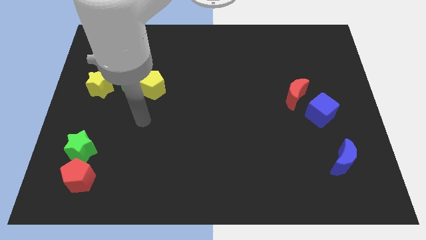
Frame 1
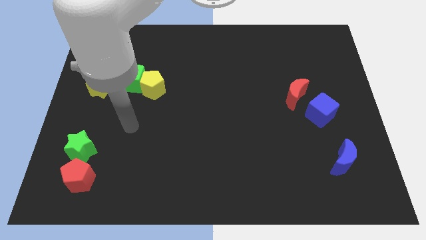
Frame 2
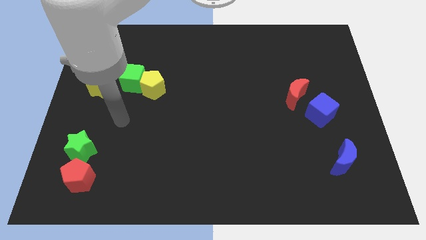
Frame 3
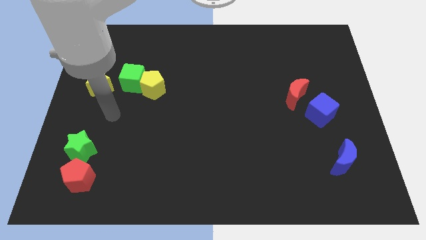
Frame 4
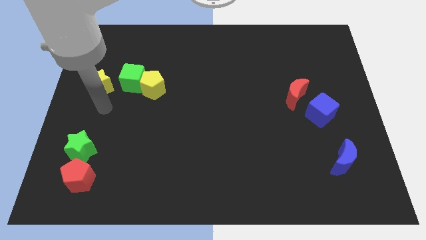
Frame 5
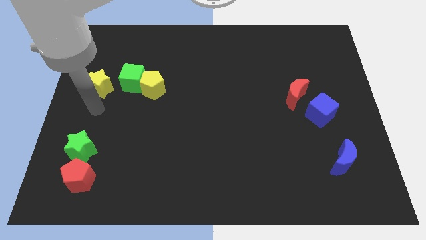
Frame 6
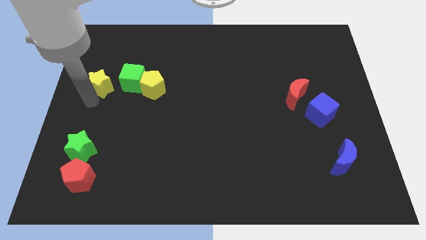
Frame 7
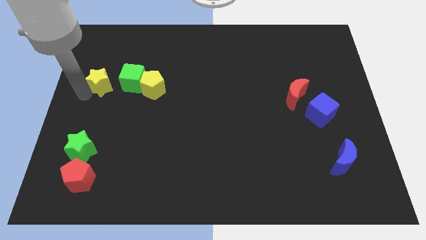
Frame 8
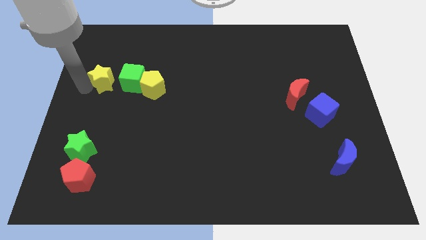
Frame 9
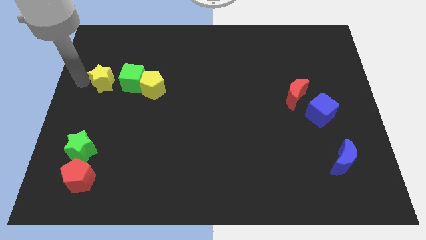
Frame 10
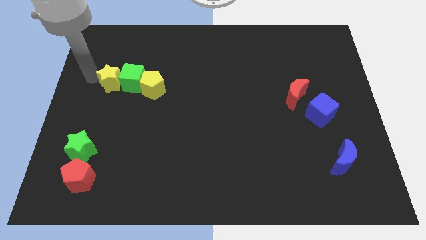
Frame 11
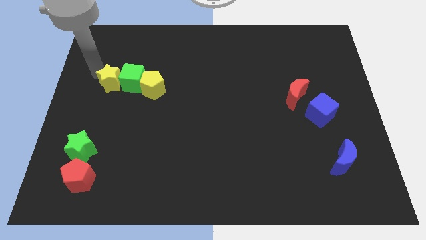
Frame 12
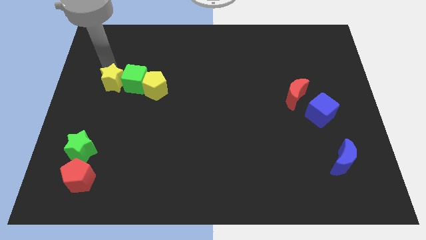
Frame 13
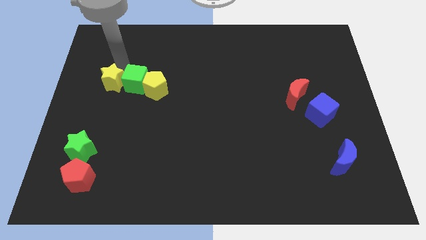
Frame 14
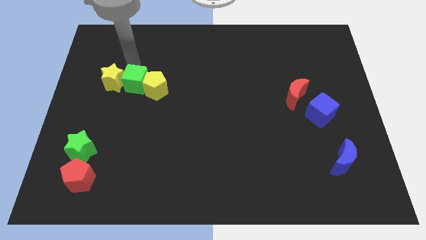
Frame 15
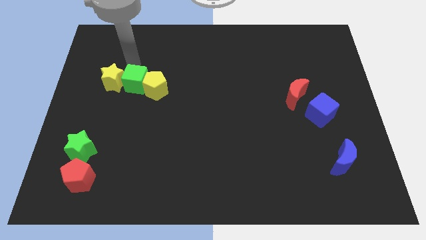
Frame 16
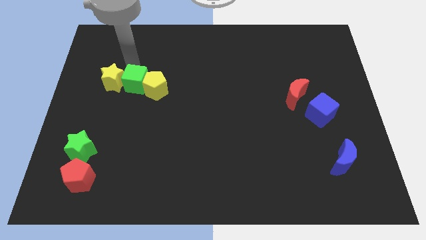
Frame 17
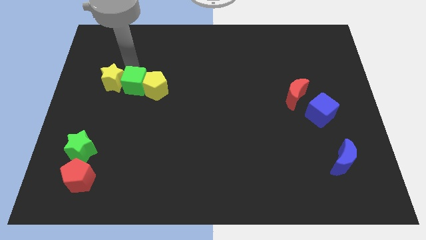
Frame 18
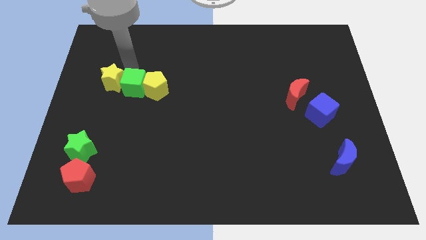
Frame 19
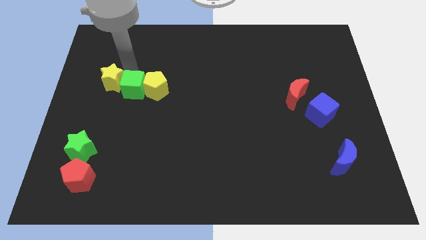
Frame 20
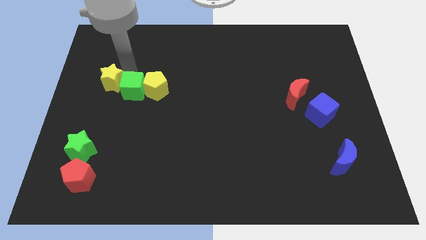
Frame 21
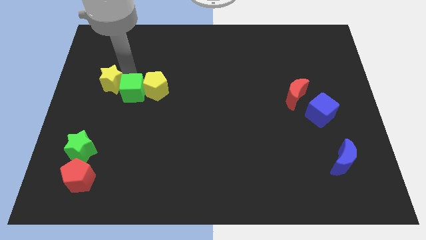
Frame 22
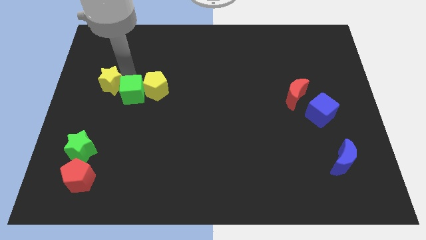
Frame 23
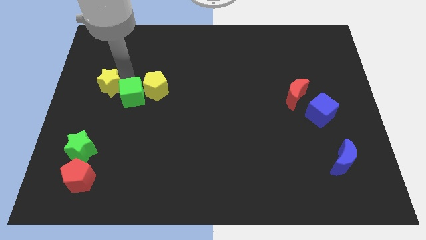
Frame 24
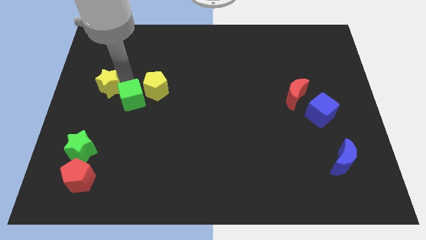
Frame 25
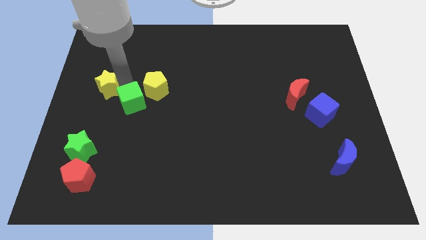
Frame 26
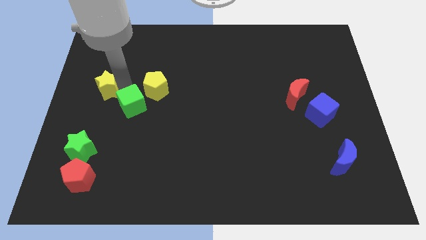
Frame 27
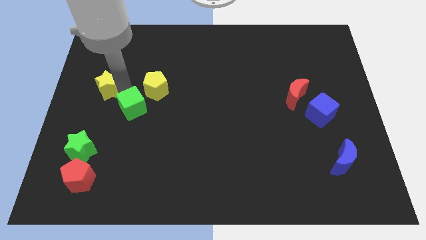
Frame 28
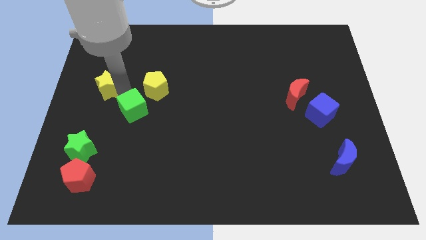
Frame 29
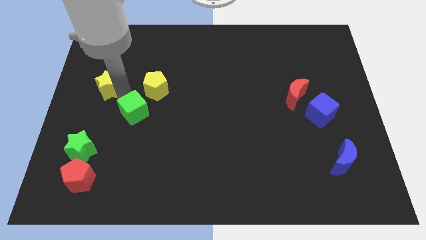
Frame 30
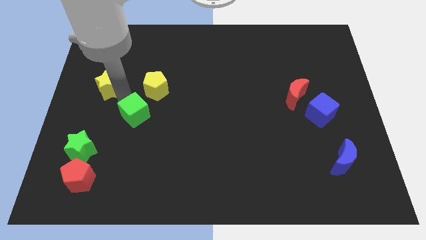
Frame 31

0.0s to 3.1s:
slightly push the green cube diagonally downwards and to the right

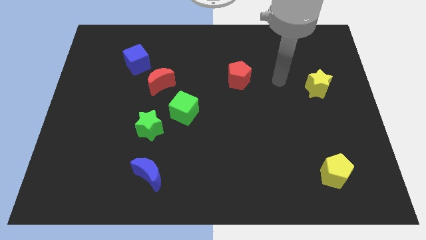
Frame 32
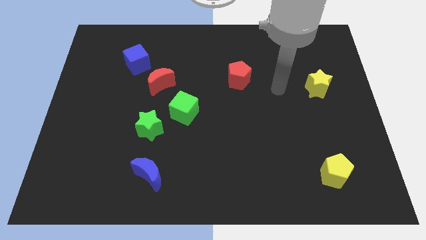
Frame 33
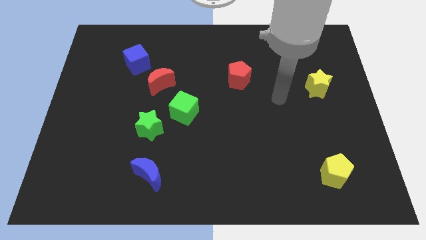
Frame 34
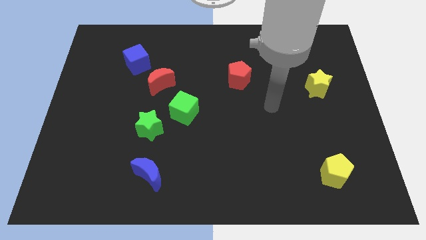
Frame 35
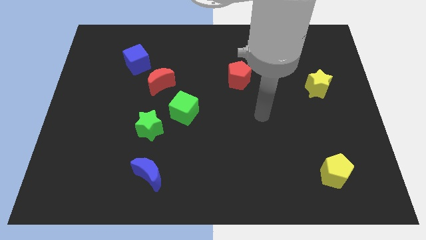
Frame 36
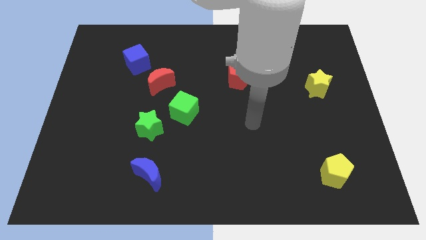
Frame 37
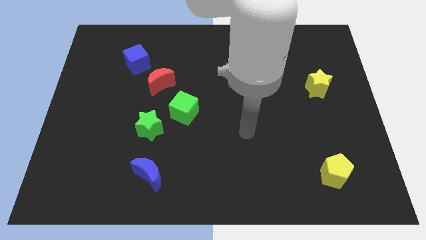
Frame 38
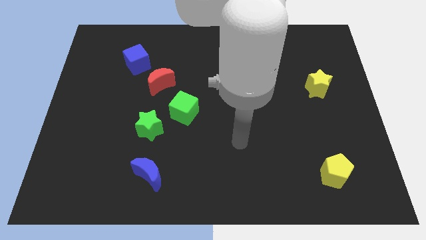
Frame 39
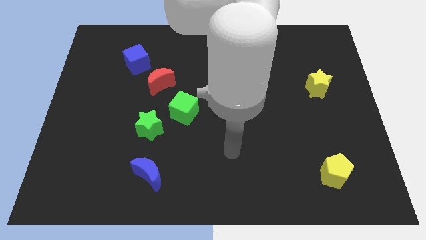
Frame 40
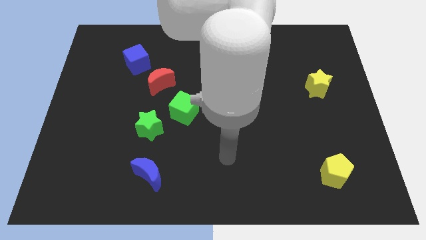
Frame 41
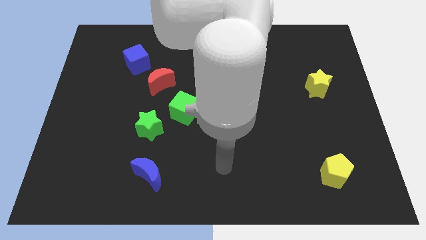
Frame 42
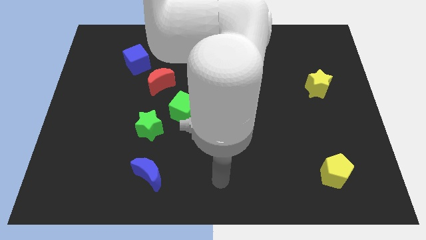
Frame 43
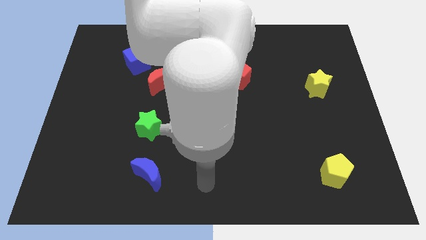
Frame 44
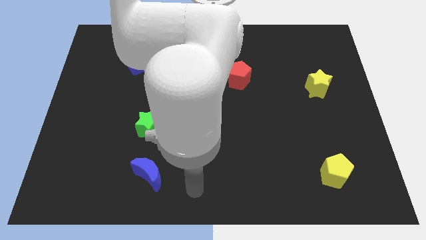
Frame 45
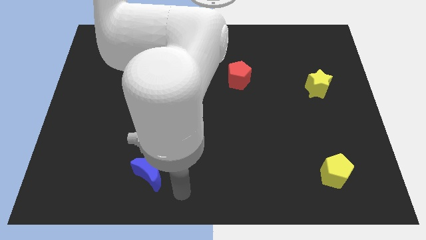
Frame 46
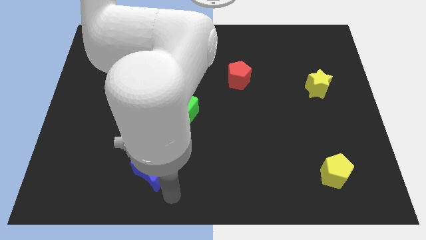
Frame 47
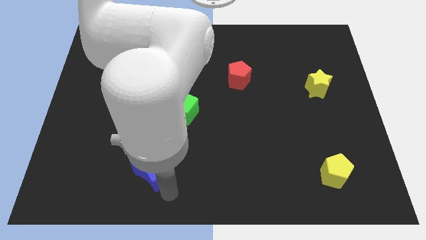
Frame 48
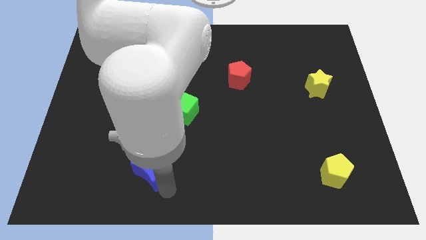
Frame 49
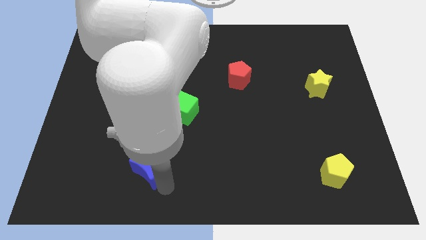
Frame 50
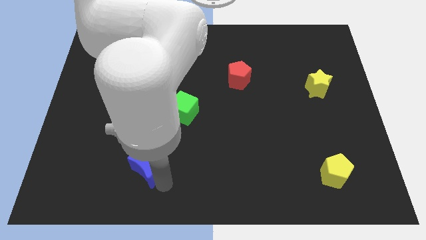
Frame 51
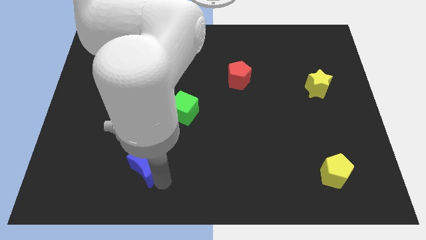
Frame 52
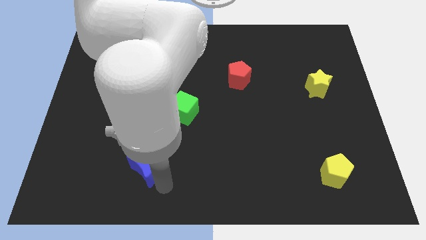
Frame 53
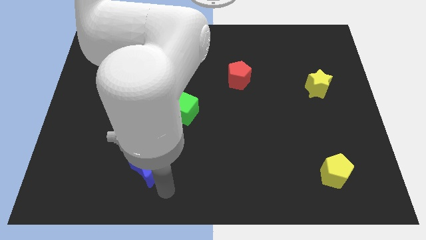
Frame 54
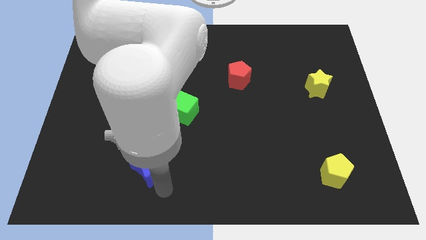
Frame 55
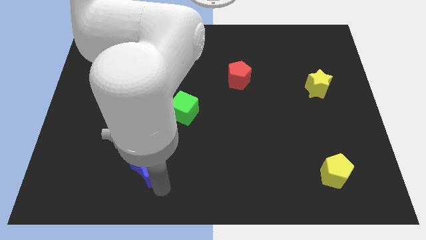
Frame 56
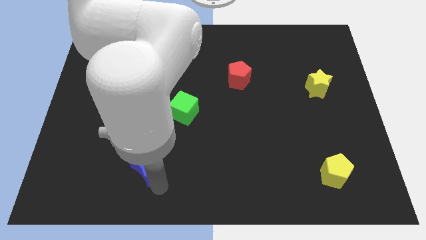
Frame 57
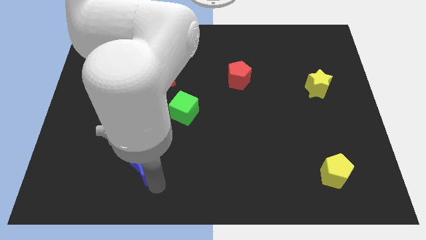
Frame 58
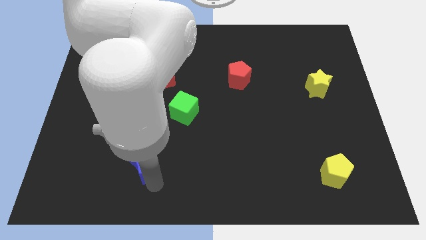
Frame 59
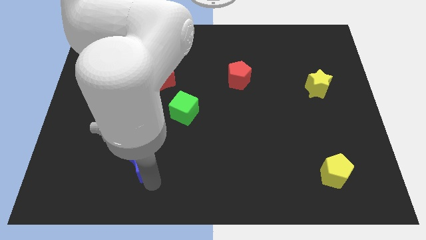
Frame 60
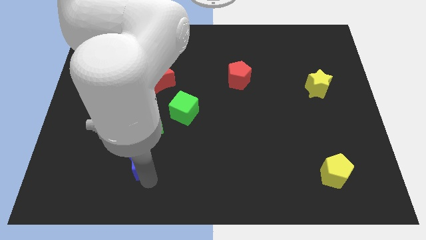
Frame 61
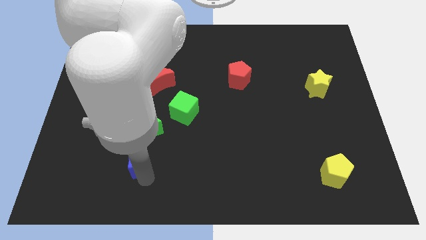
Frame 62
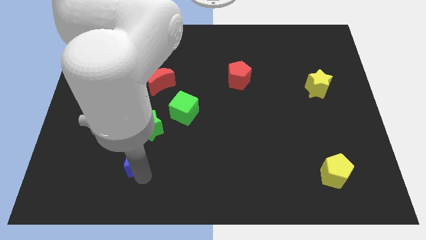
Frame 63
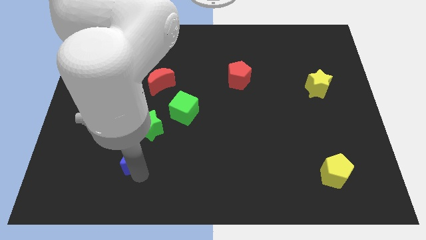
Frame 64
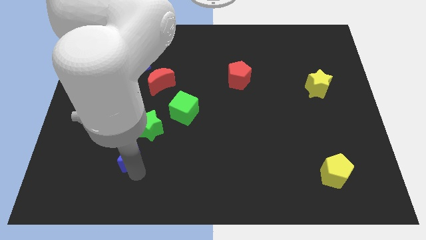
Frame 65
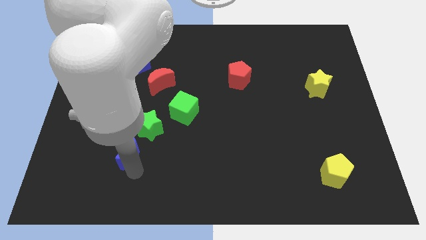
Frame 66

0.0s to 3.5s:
slightly slide the blue moon diagonally up and left

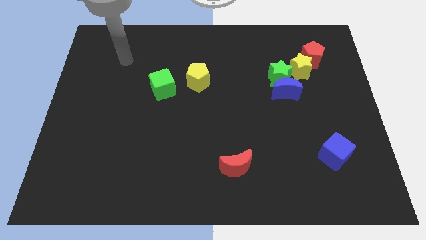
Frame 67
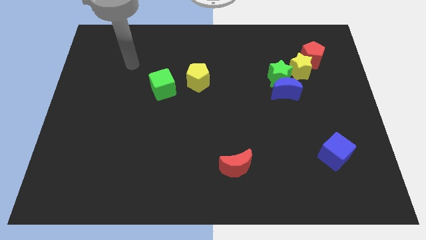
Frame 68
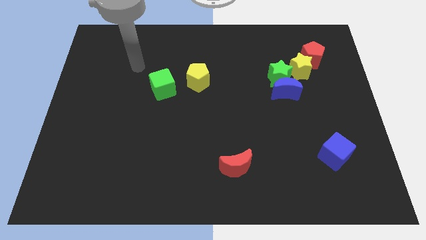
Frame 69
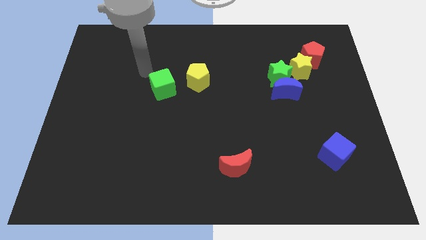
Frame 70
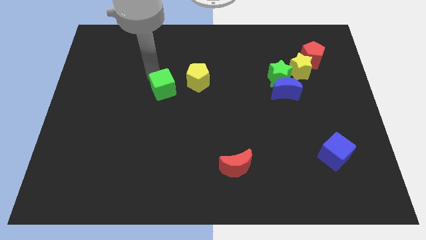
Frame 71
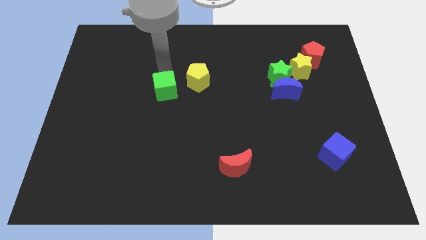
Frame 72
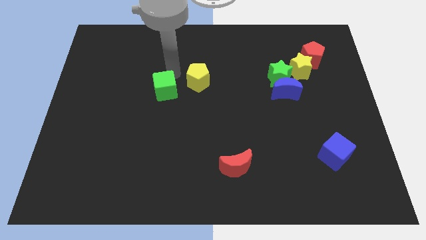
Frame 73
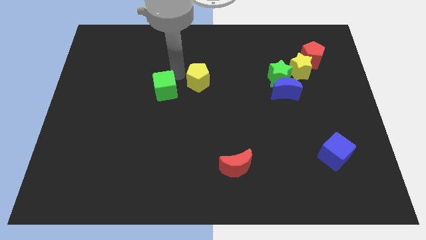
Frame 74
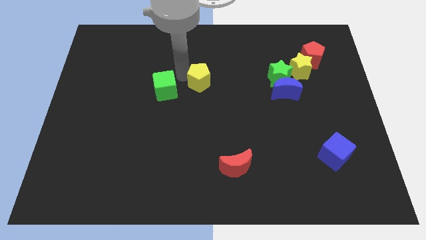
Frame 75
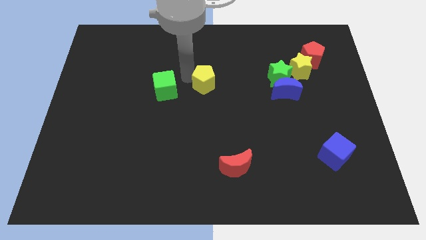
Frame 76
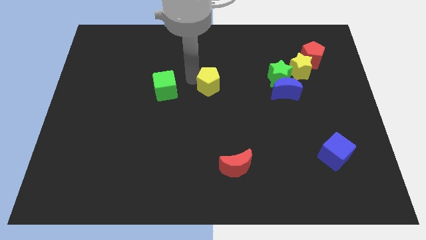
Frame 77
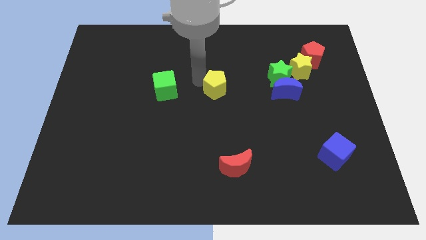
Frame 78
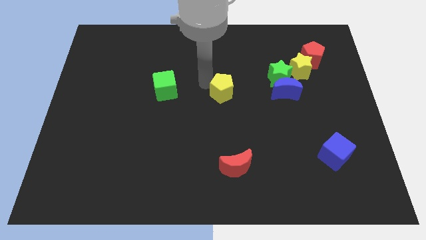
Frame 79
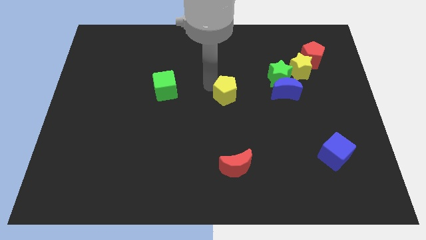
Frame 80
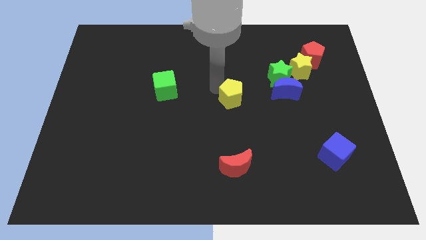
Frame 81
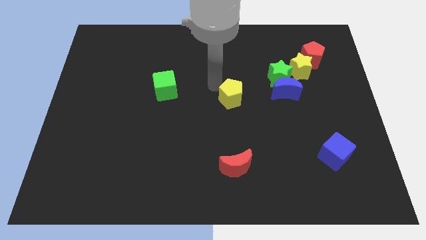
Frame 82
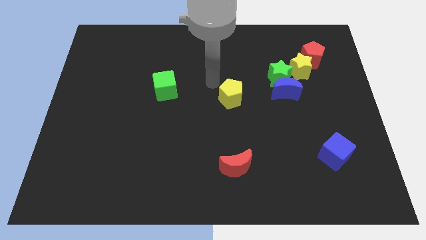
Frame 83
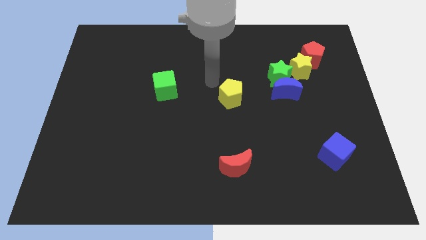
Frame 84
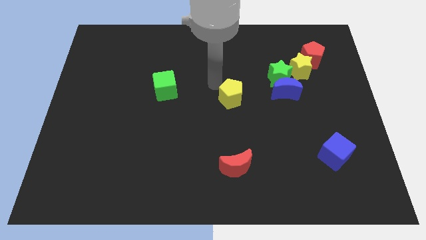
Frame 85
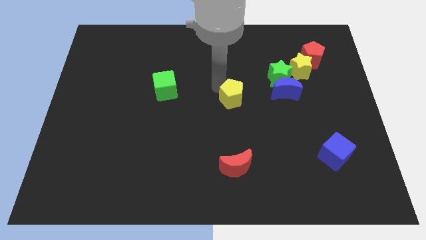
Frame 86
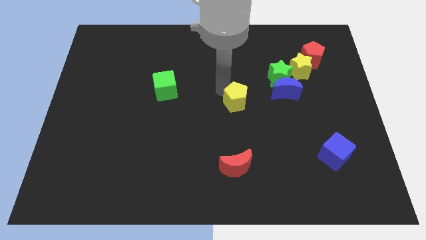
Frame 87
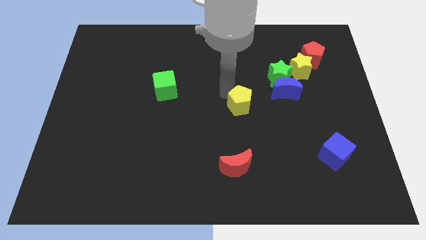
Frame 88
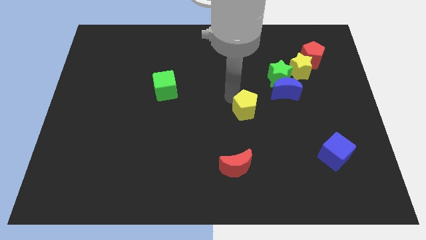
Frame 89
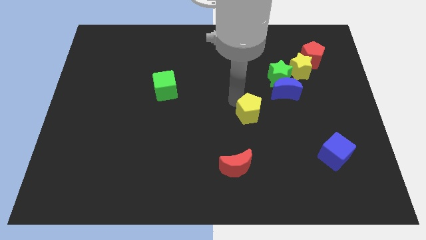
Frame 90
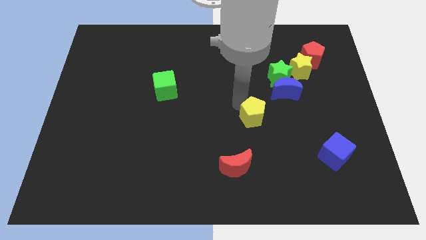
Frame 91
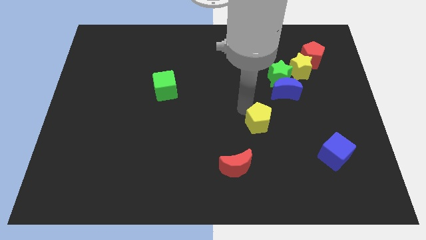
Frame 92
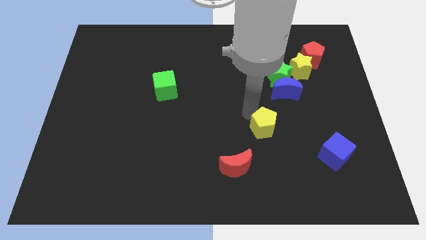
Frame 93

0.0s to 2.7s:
move the yellow pentagon diagonally down and to the right
